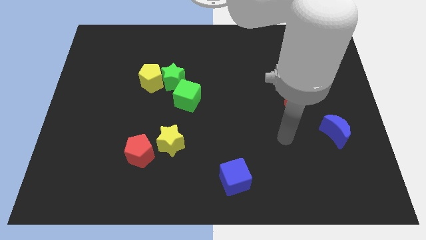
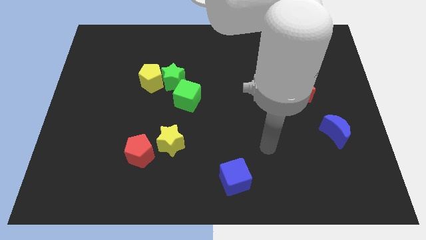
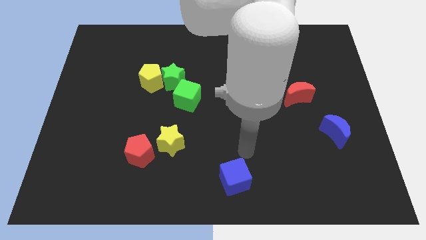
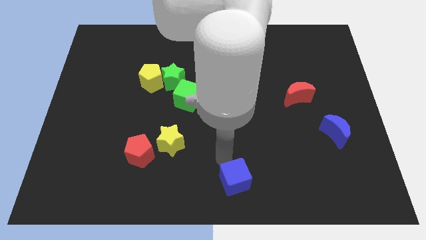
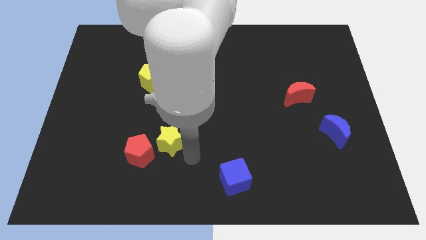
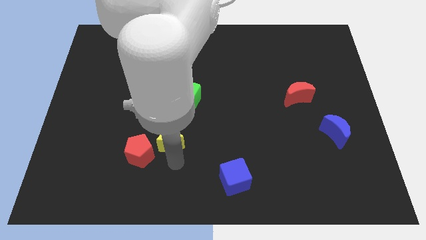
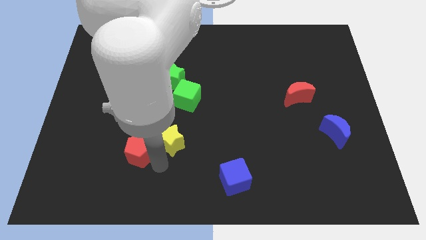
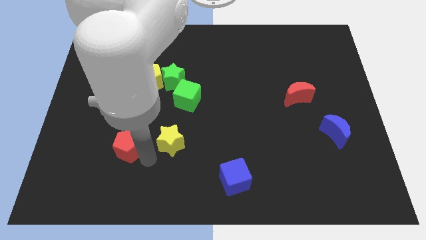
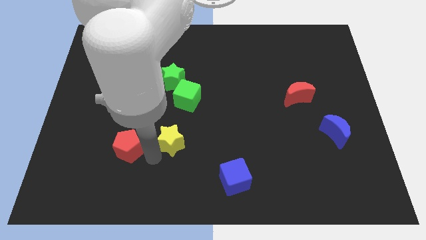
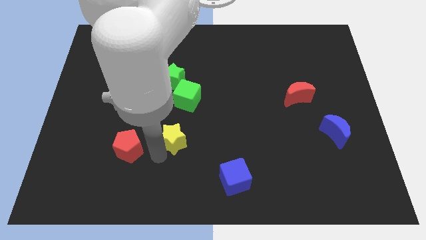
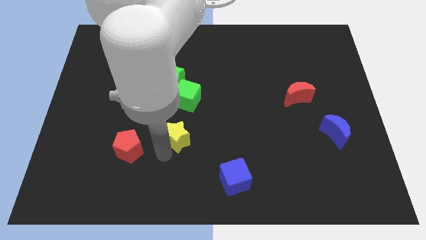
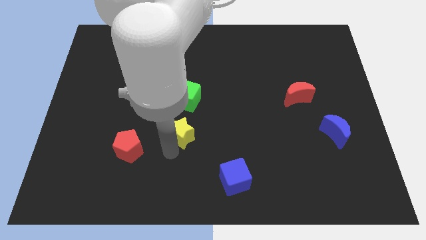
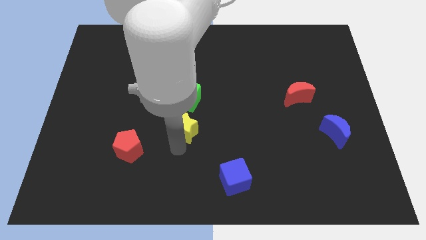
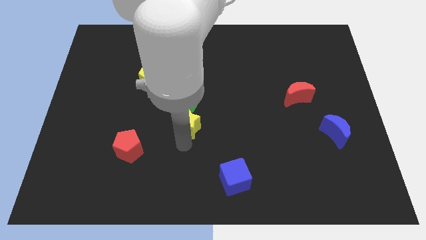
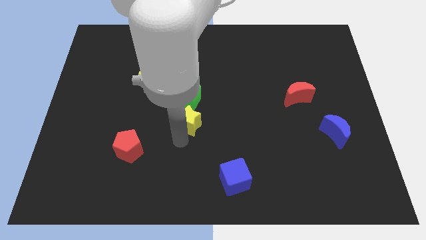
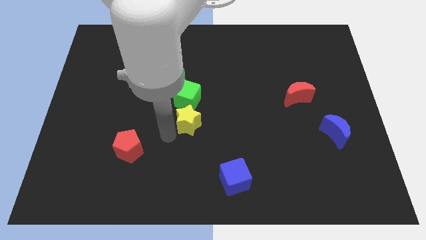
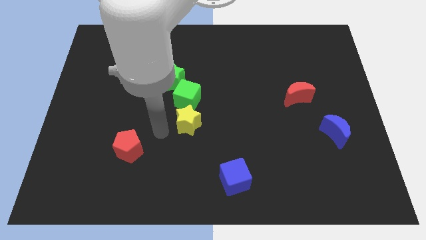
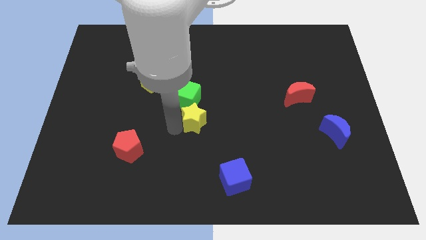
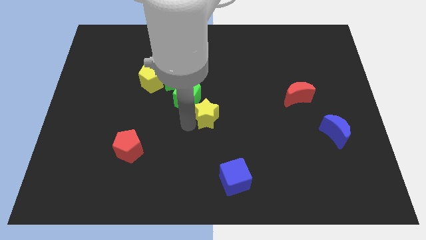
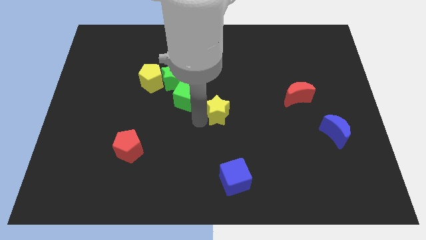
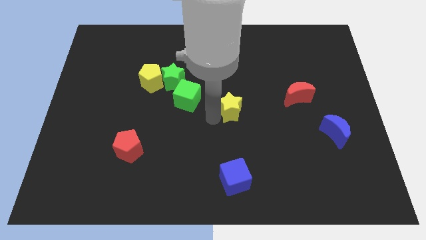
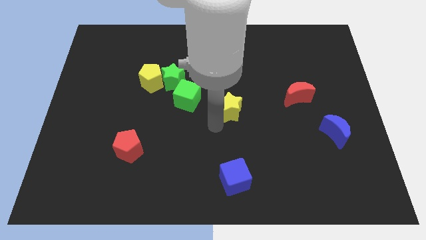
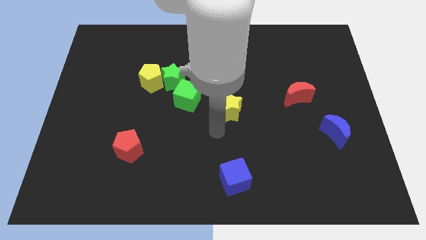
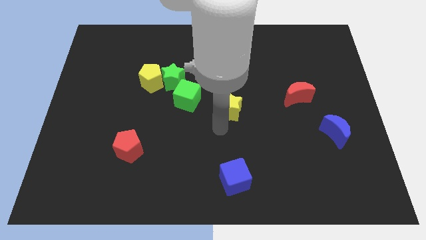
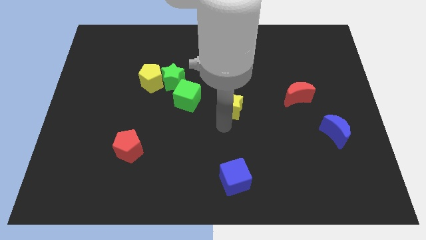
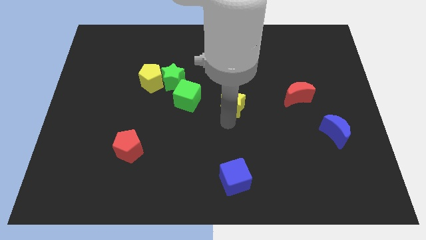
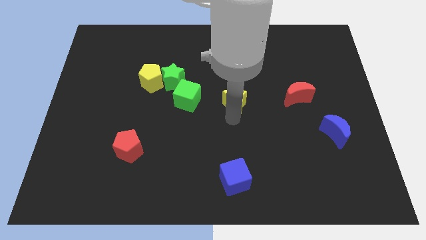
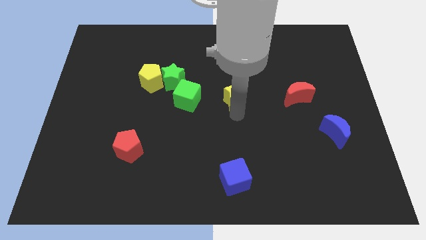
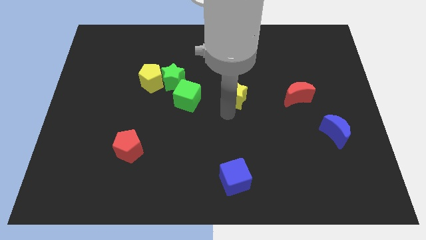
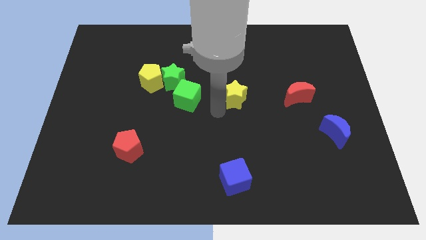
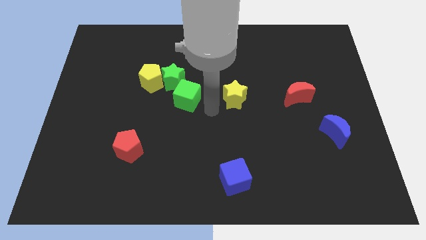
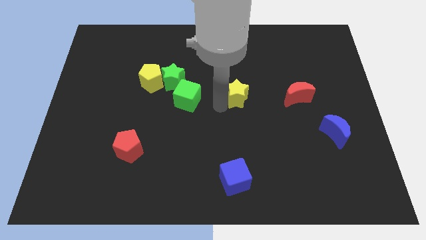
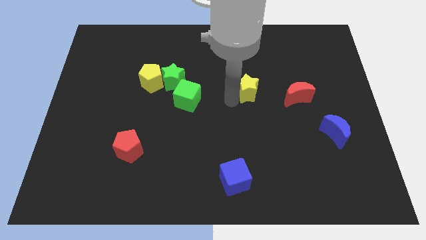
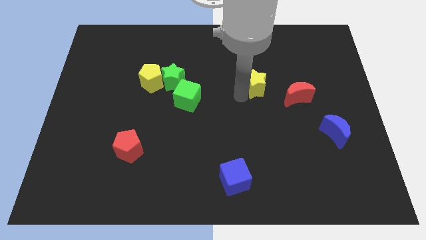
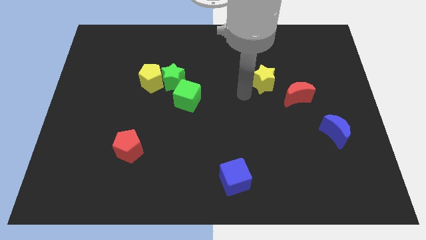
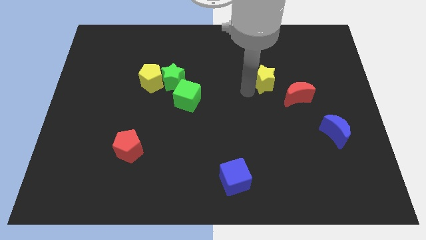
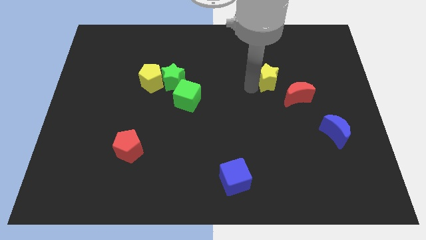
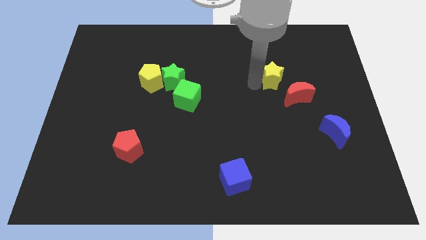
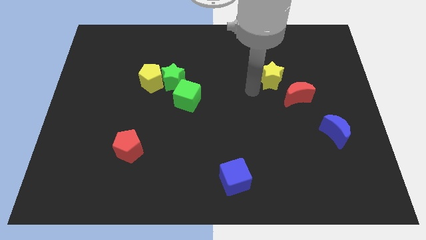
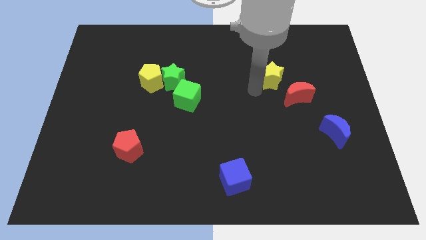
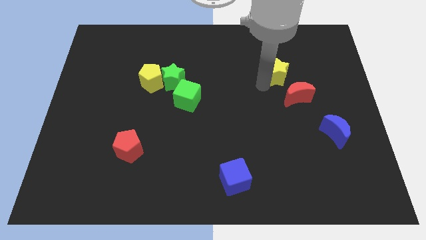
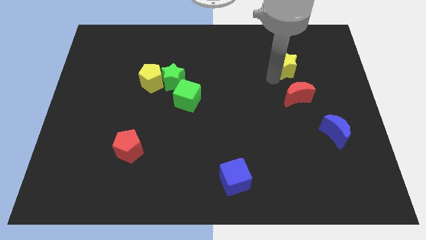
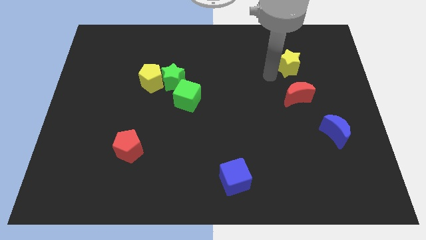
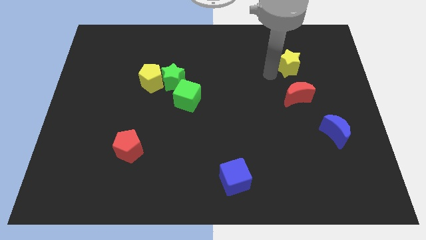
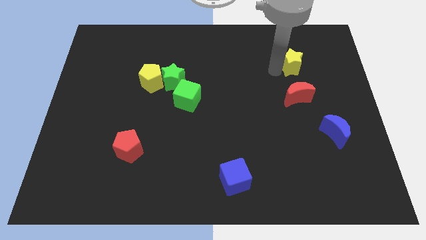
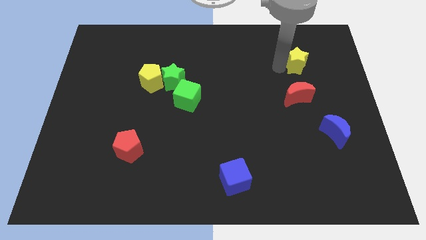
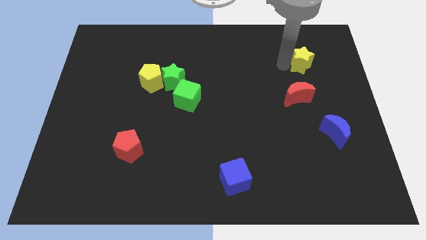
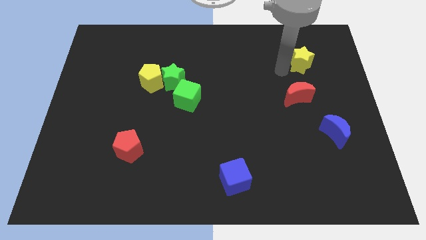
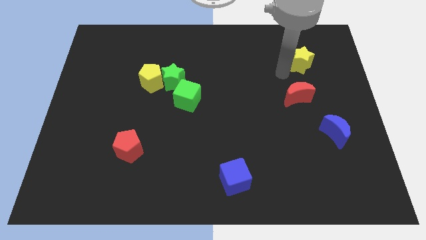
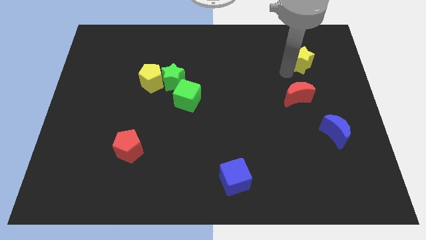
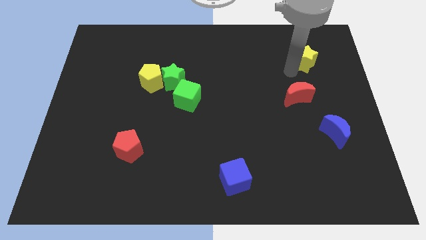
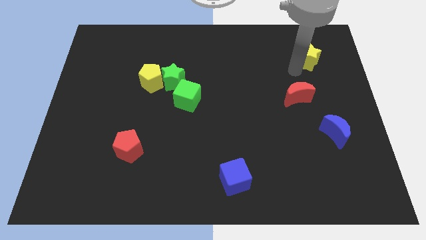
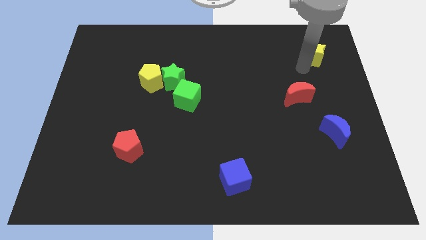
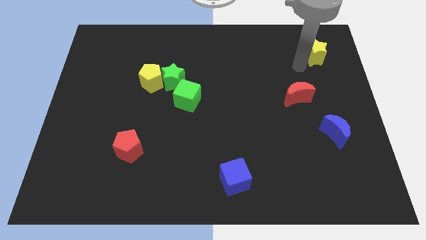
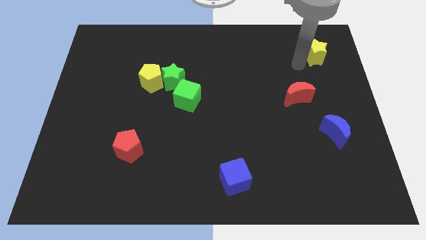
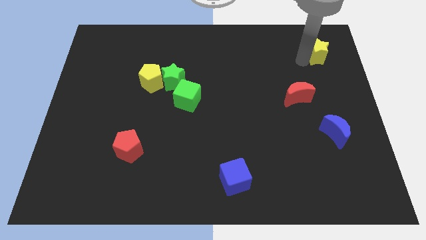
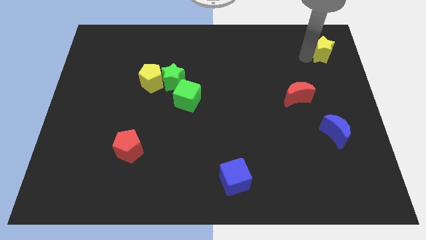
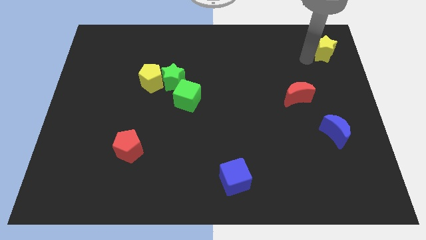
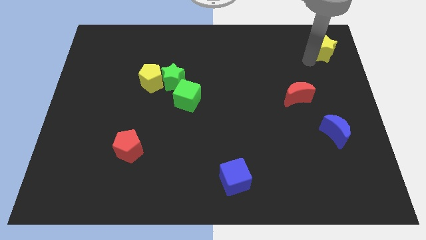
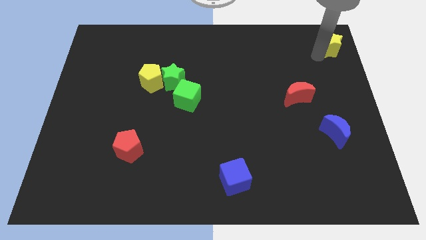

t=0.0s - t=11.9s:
push the yellow star to the upper right corner

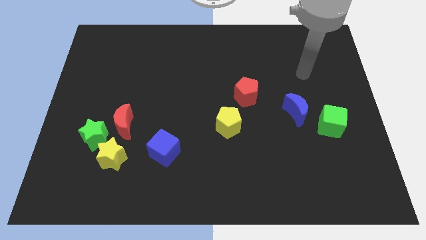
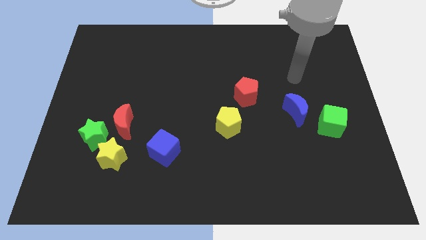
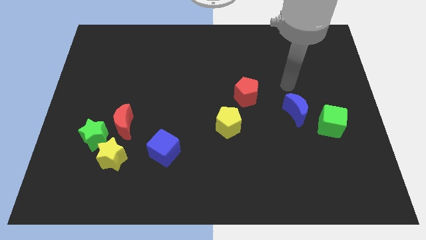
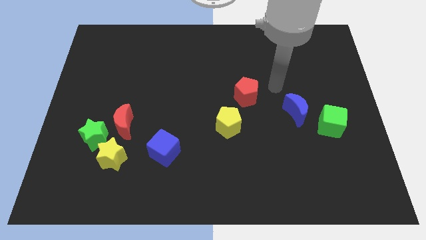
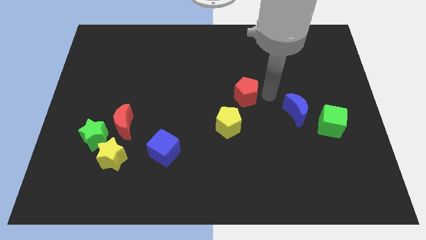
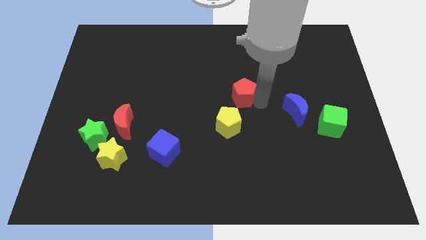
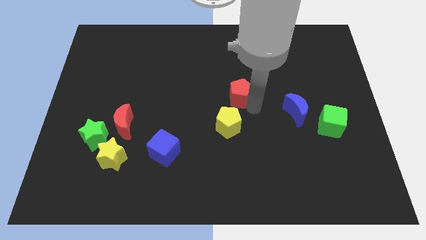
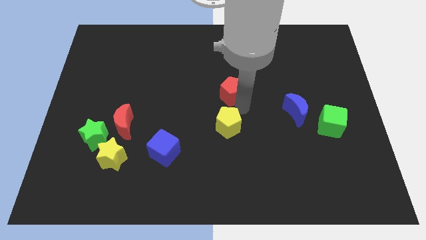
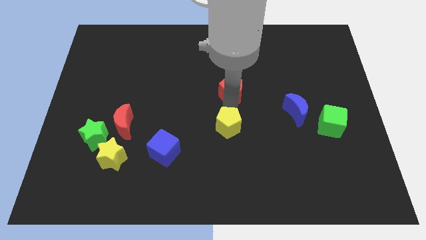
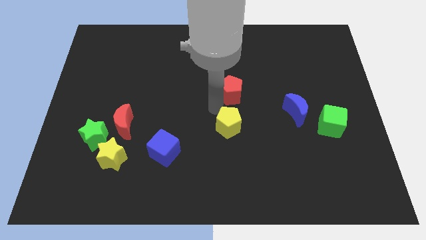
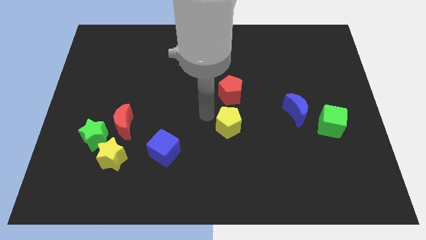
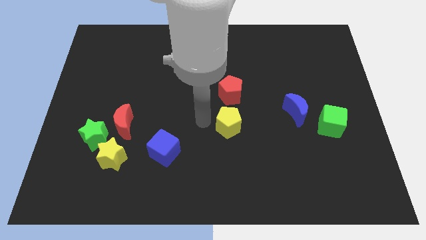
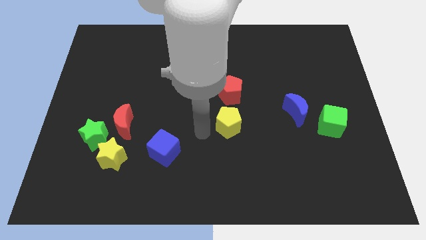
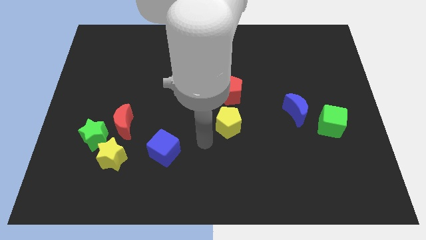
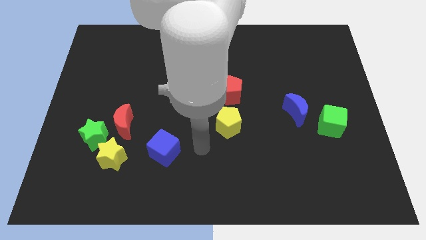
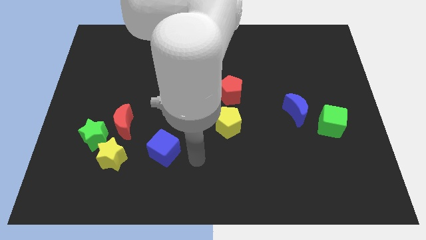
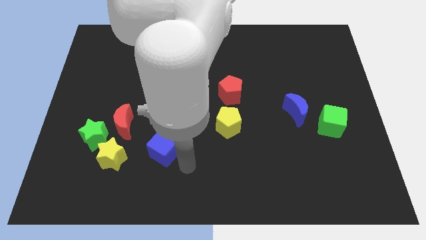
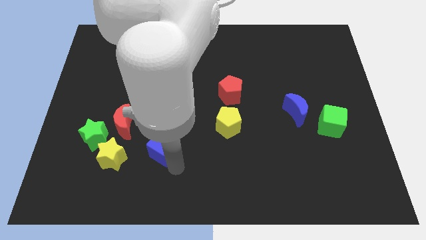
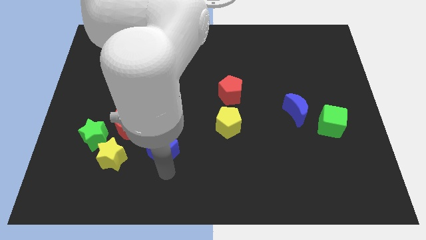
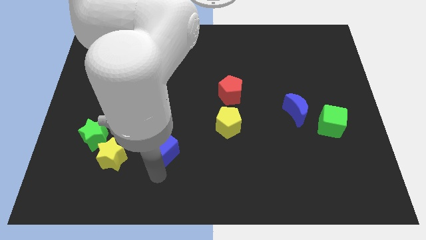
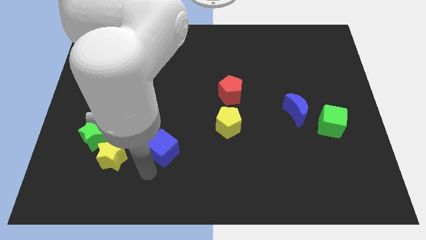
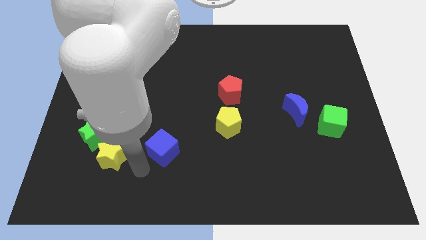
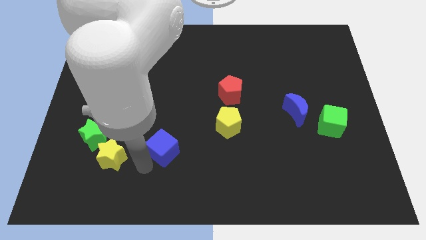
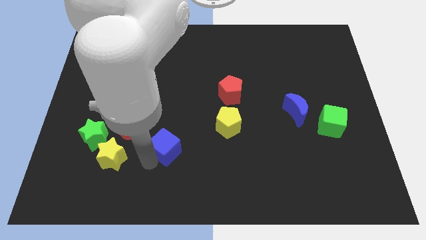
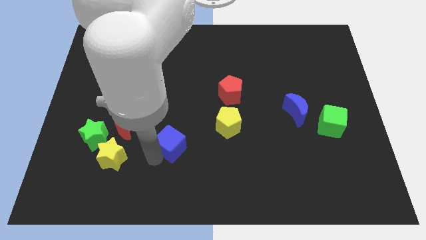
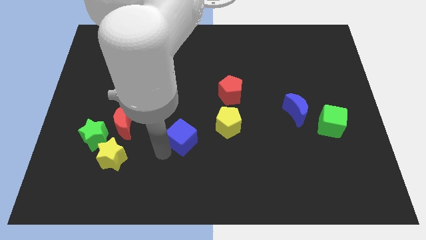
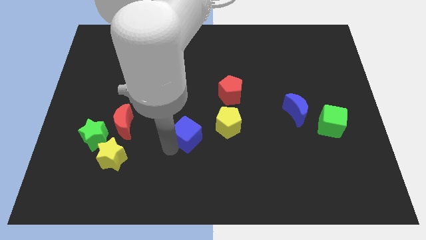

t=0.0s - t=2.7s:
push the blue cube to the middle
